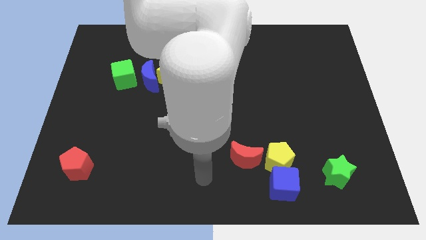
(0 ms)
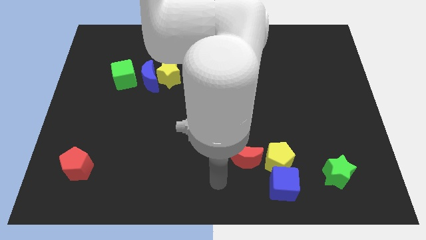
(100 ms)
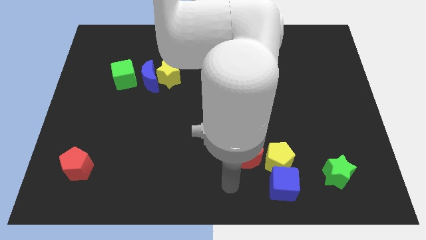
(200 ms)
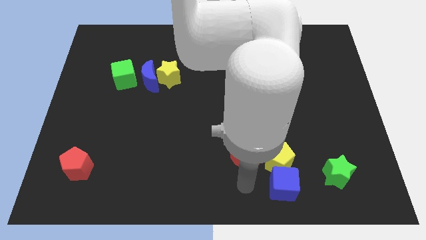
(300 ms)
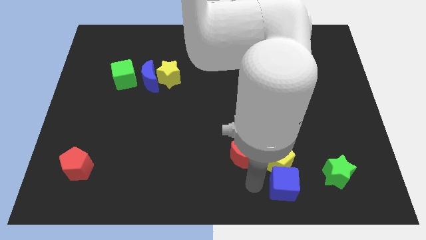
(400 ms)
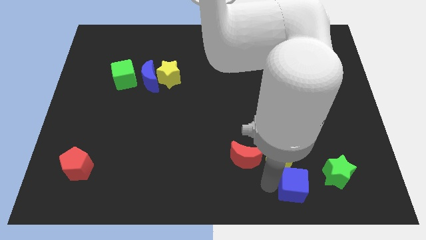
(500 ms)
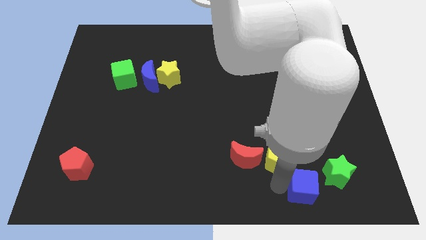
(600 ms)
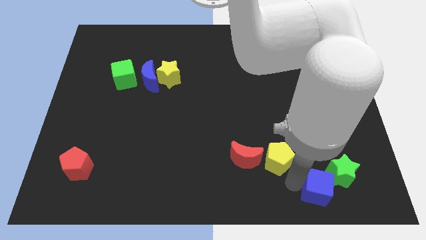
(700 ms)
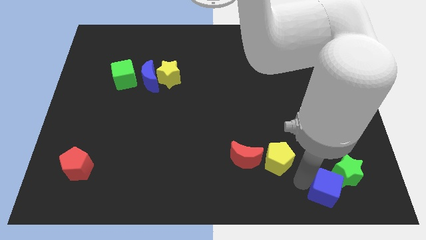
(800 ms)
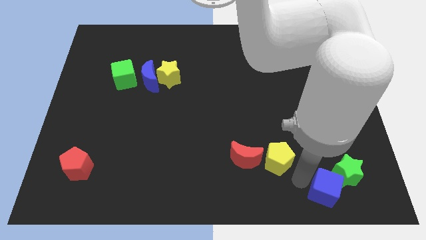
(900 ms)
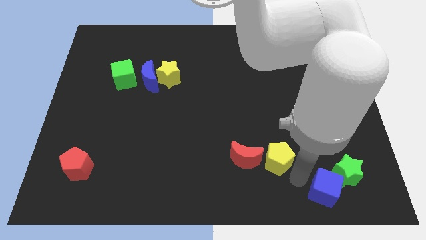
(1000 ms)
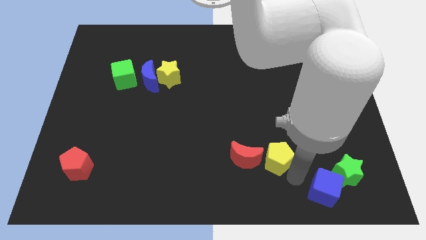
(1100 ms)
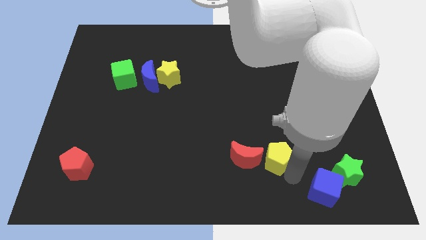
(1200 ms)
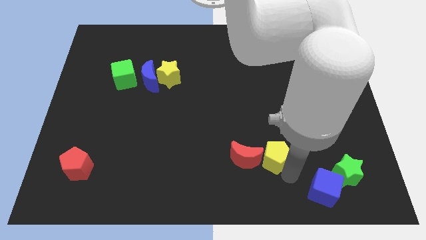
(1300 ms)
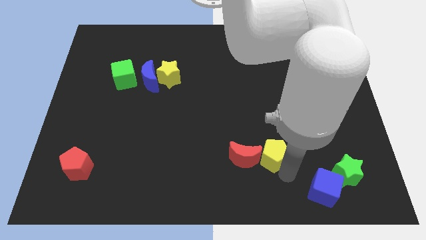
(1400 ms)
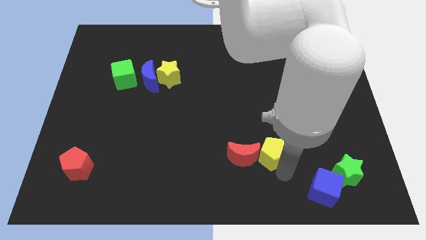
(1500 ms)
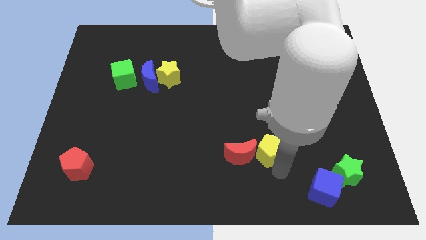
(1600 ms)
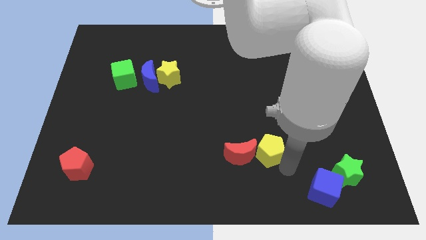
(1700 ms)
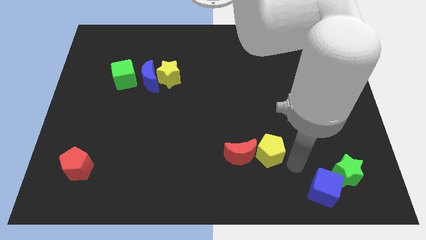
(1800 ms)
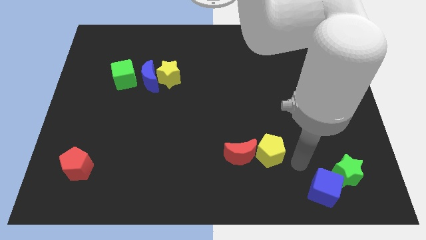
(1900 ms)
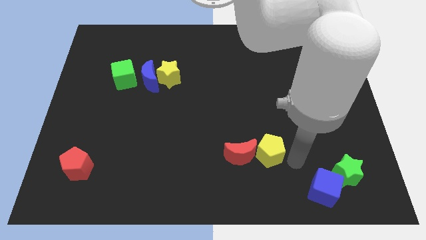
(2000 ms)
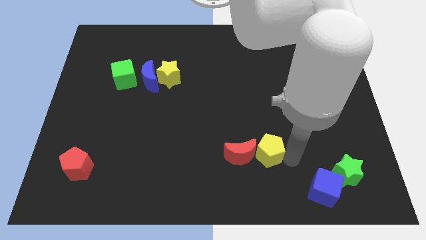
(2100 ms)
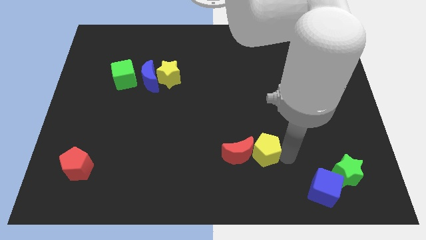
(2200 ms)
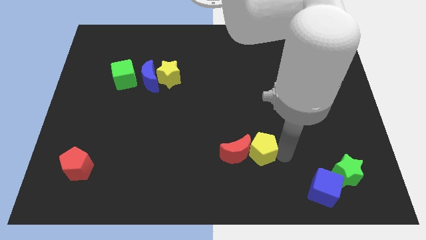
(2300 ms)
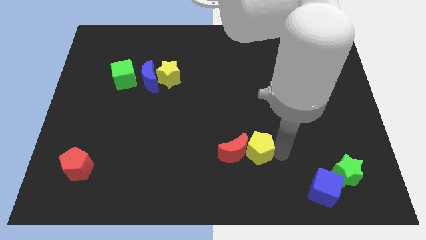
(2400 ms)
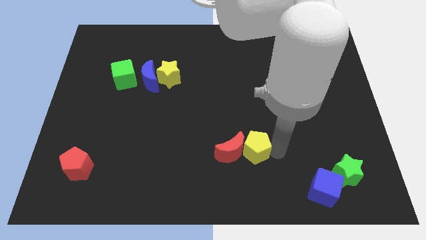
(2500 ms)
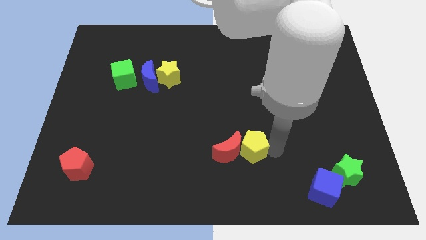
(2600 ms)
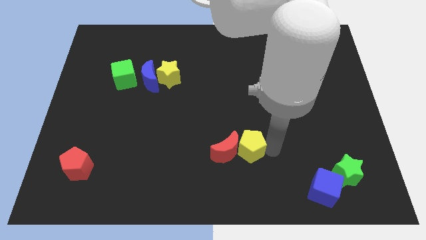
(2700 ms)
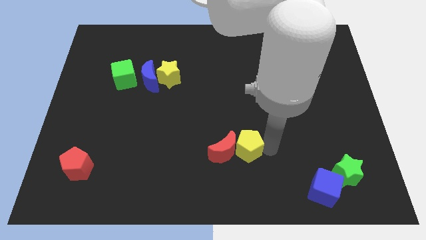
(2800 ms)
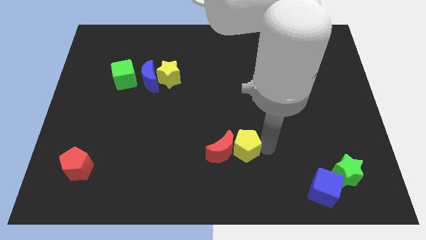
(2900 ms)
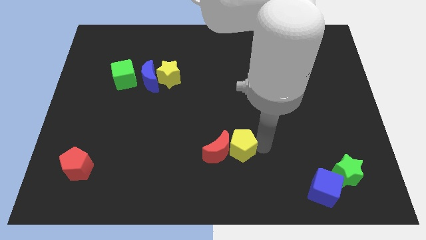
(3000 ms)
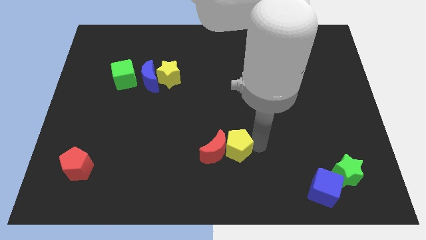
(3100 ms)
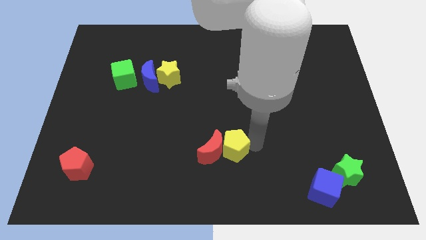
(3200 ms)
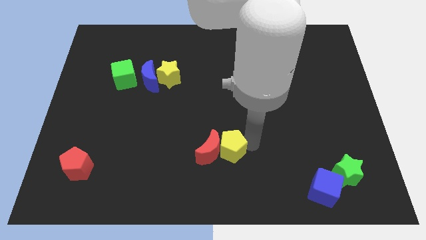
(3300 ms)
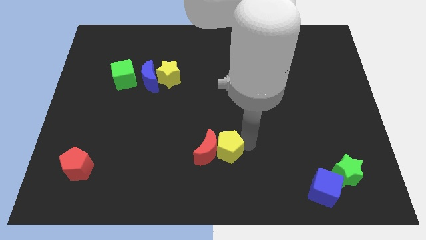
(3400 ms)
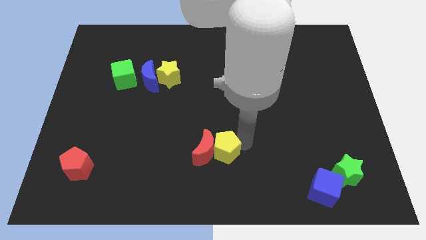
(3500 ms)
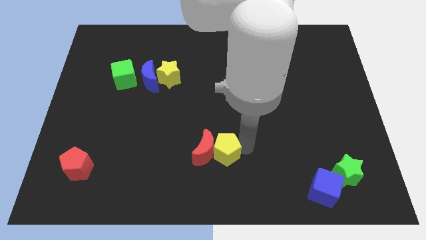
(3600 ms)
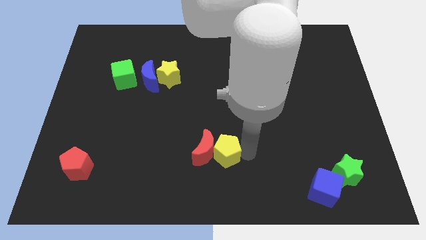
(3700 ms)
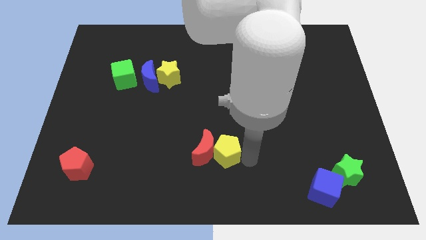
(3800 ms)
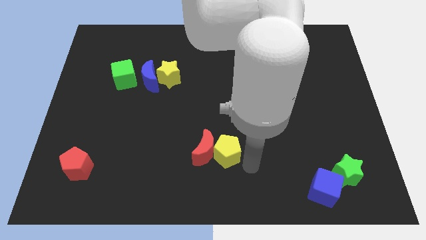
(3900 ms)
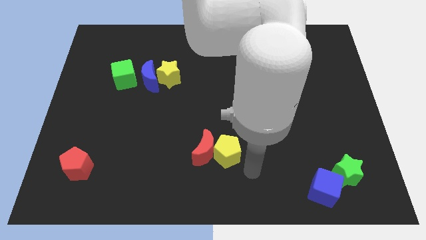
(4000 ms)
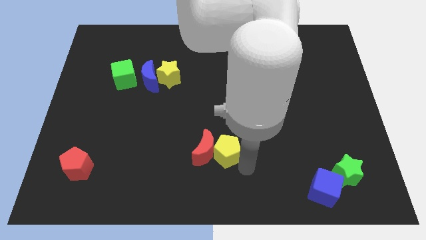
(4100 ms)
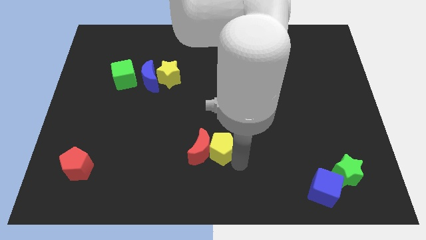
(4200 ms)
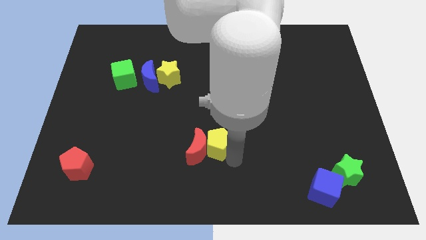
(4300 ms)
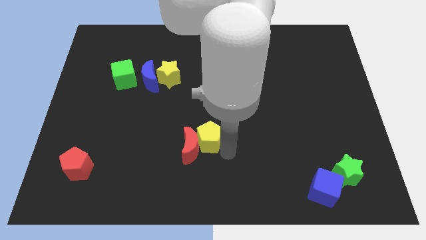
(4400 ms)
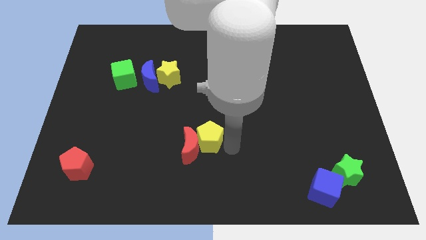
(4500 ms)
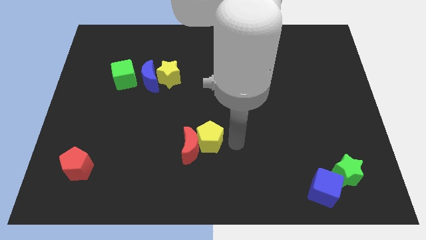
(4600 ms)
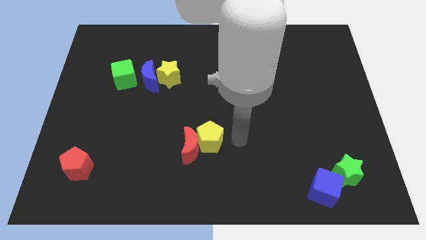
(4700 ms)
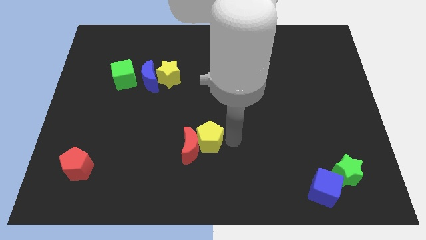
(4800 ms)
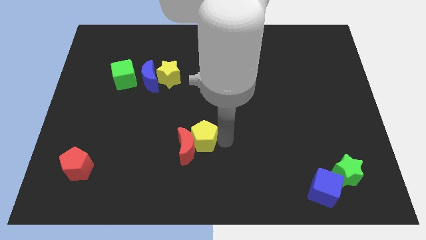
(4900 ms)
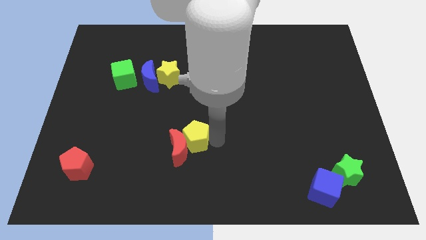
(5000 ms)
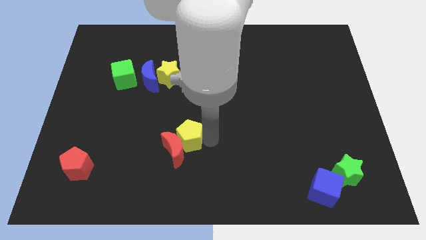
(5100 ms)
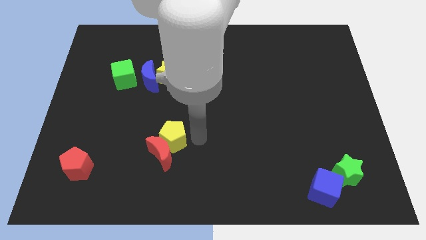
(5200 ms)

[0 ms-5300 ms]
move the yellow pentagon to the left

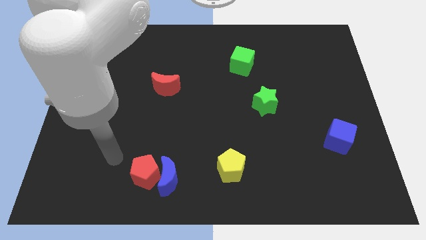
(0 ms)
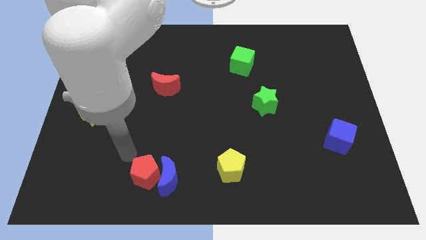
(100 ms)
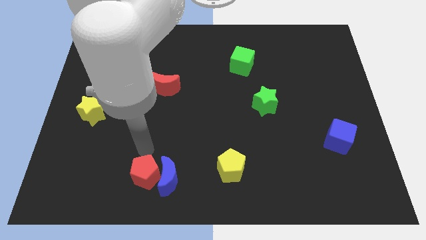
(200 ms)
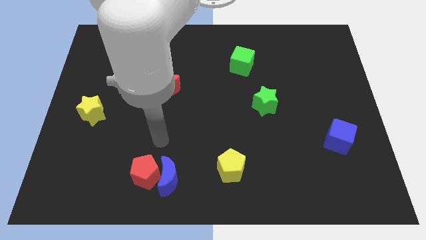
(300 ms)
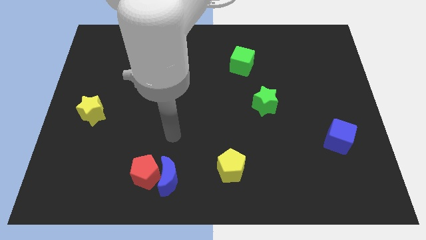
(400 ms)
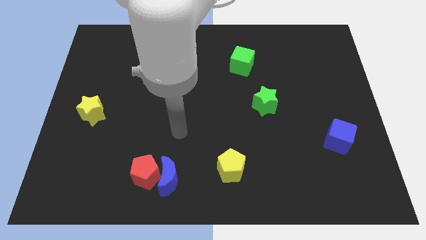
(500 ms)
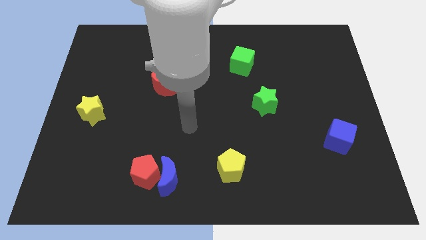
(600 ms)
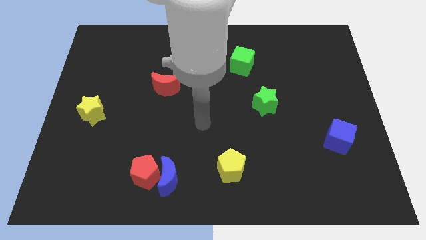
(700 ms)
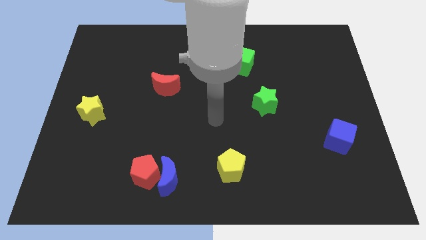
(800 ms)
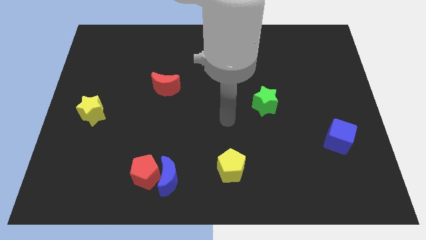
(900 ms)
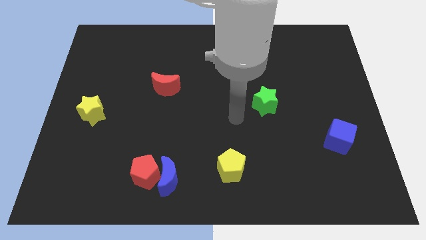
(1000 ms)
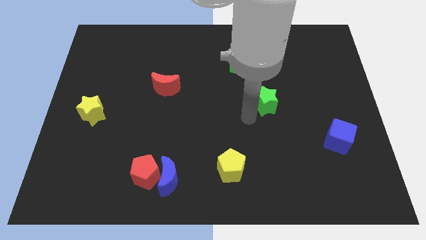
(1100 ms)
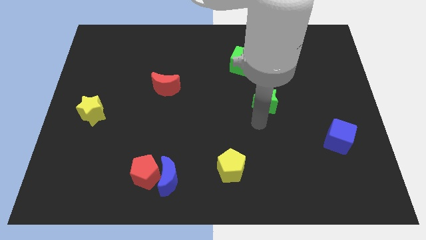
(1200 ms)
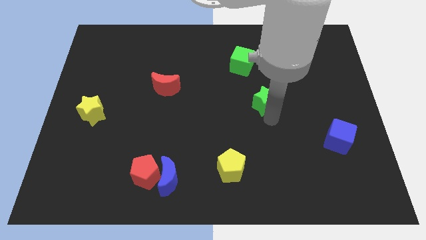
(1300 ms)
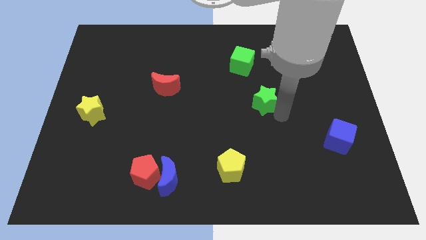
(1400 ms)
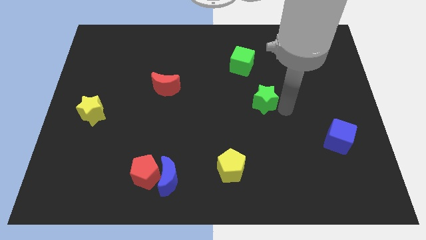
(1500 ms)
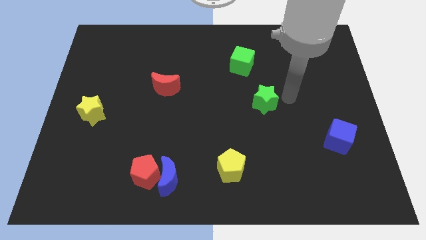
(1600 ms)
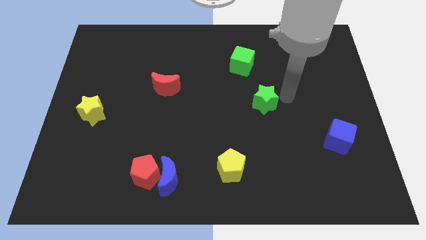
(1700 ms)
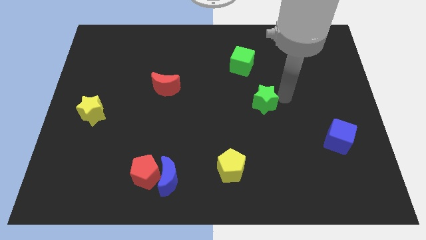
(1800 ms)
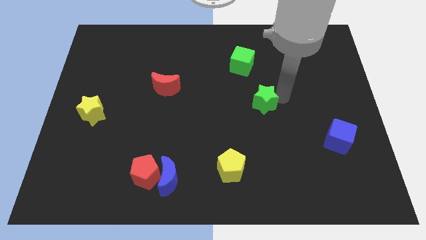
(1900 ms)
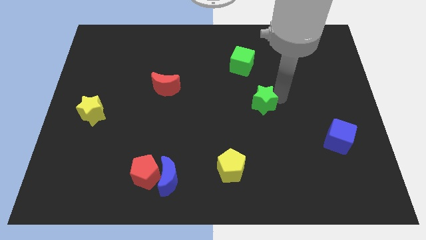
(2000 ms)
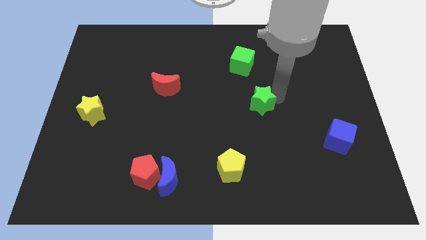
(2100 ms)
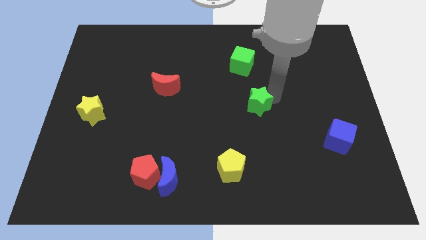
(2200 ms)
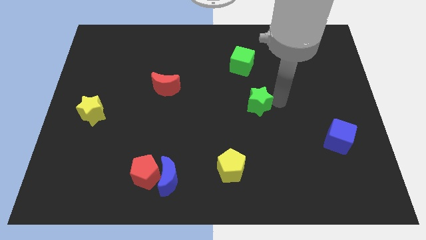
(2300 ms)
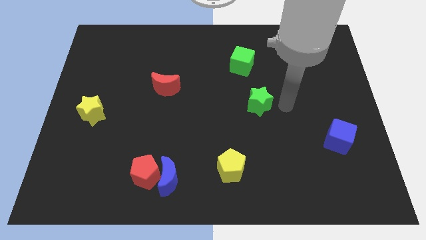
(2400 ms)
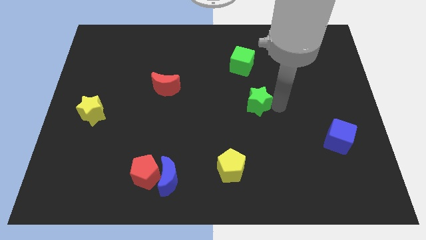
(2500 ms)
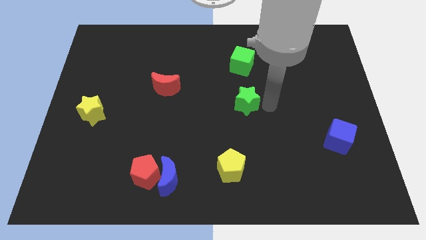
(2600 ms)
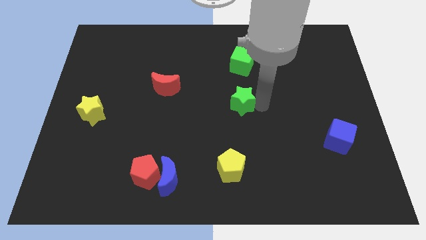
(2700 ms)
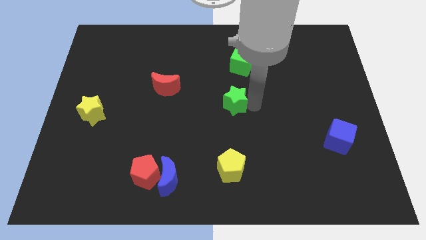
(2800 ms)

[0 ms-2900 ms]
slide the green star left somewhat
